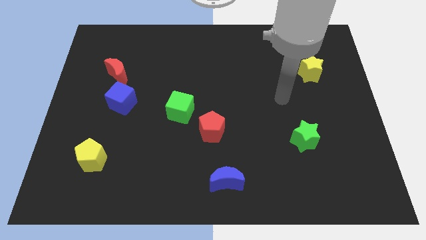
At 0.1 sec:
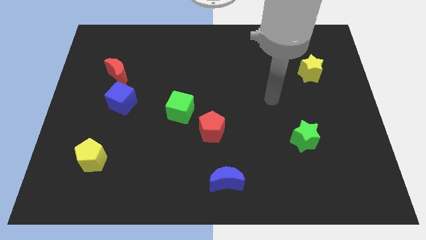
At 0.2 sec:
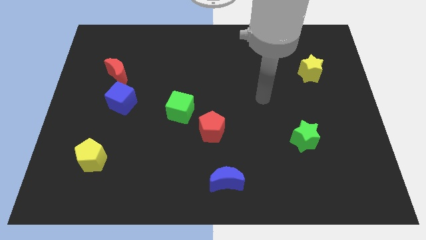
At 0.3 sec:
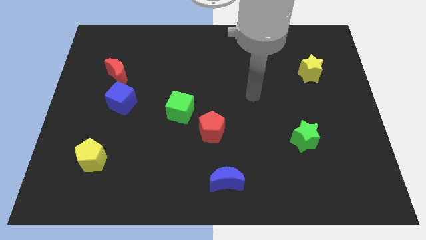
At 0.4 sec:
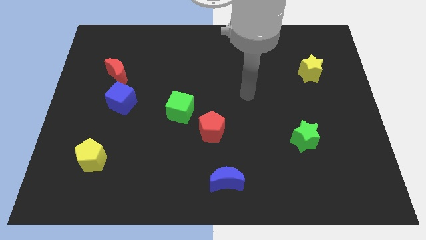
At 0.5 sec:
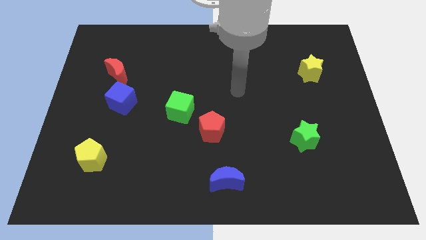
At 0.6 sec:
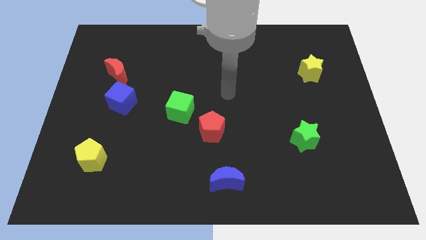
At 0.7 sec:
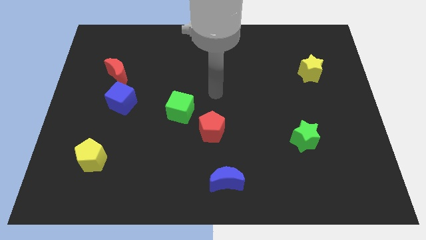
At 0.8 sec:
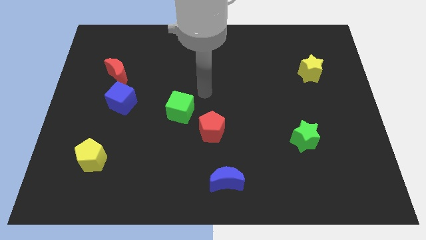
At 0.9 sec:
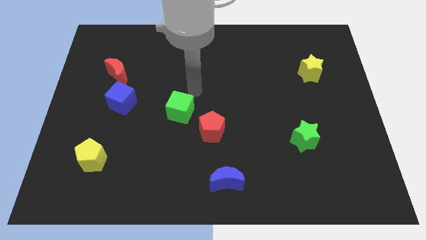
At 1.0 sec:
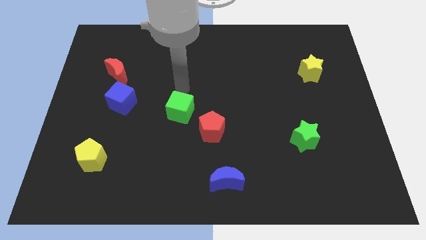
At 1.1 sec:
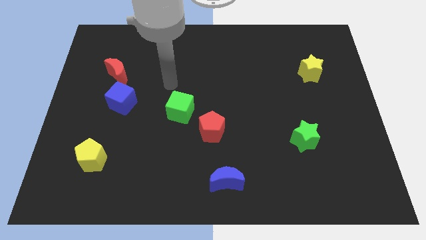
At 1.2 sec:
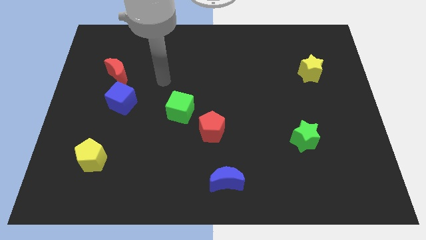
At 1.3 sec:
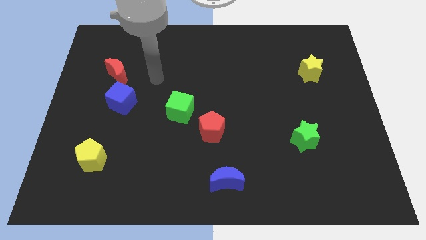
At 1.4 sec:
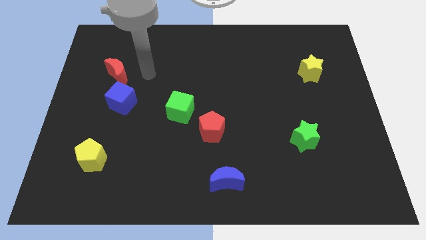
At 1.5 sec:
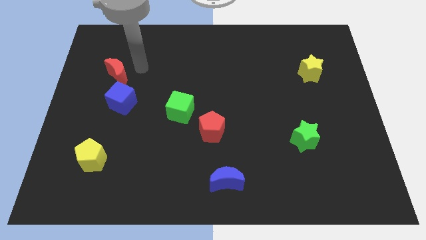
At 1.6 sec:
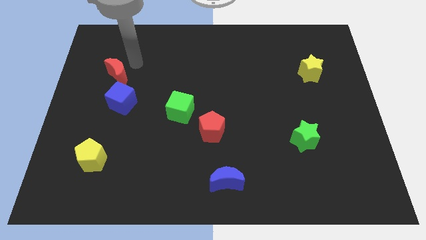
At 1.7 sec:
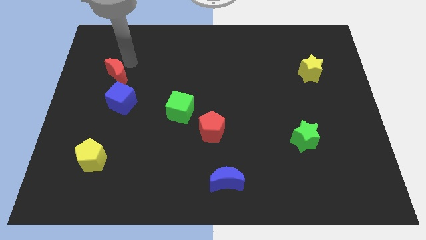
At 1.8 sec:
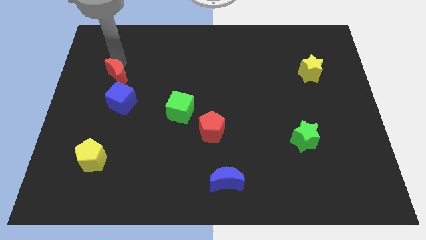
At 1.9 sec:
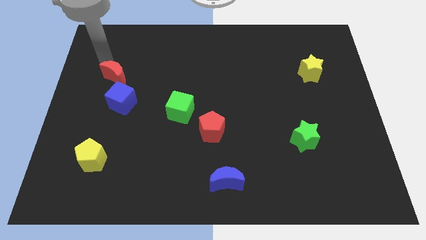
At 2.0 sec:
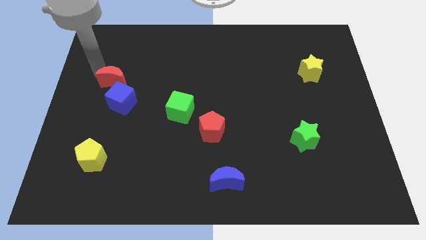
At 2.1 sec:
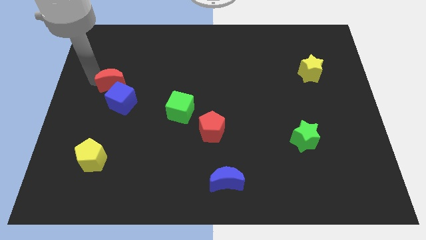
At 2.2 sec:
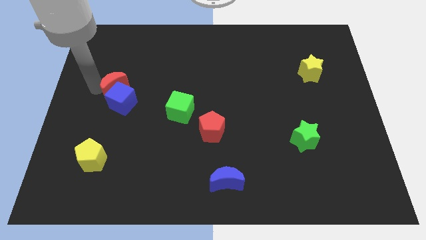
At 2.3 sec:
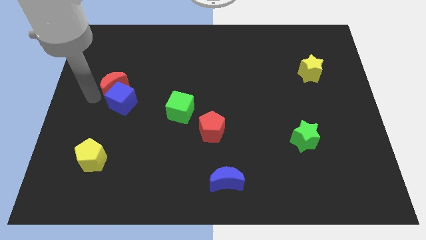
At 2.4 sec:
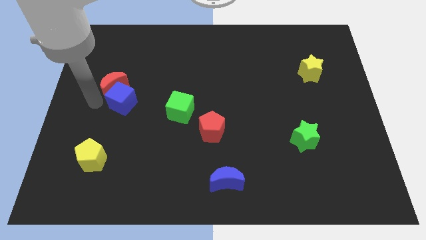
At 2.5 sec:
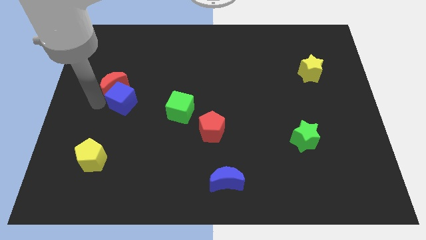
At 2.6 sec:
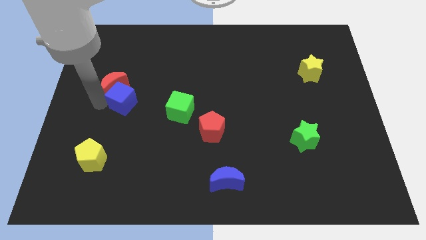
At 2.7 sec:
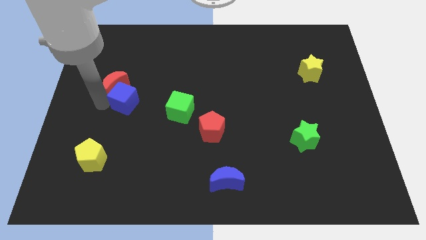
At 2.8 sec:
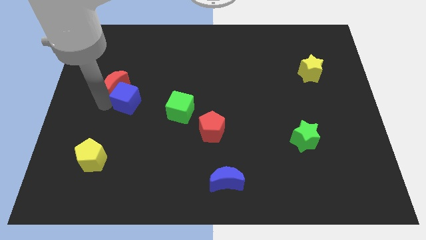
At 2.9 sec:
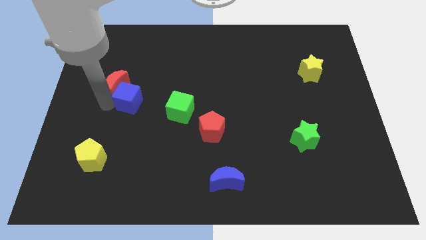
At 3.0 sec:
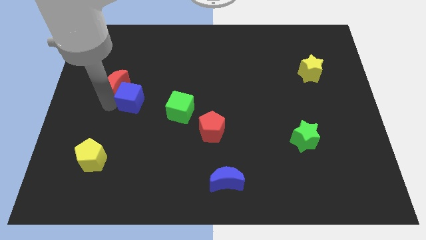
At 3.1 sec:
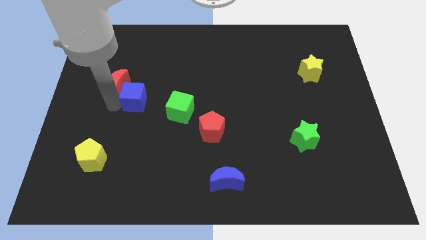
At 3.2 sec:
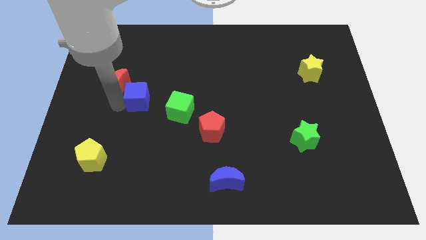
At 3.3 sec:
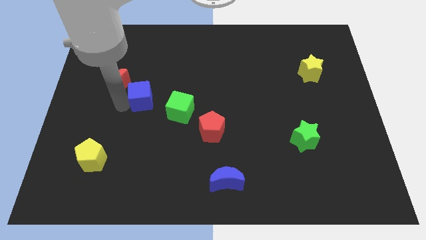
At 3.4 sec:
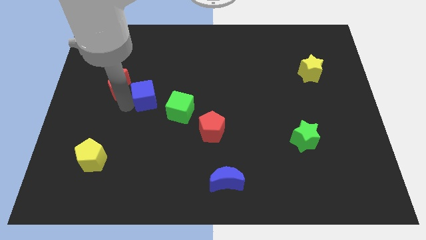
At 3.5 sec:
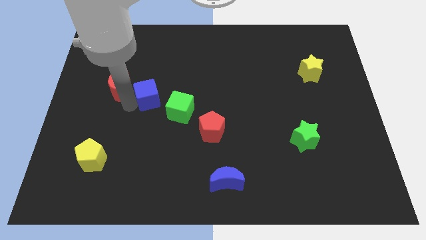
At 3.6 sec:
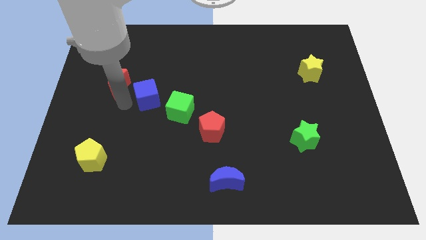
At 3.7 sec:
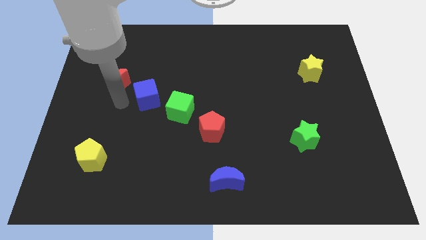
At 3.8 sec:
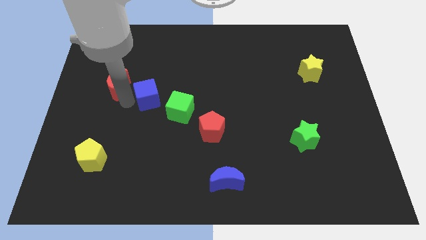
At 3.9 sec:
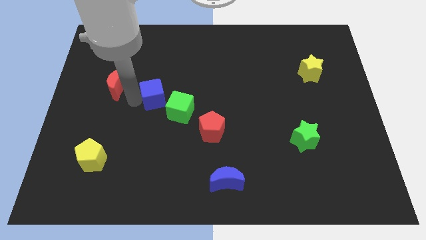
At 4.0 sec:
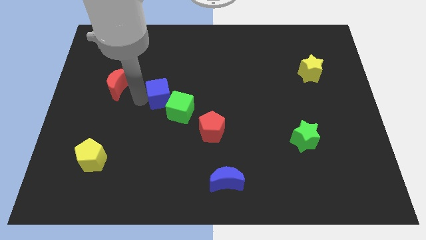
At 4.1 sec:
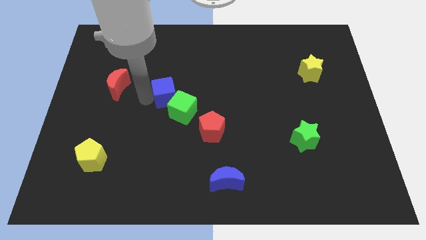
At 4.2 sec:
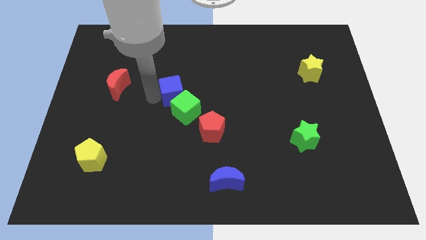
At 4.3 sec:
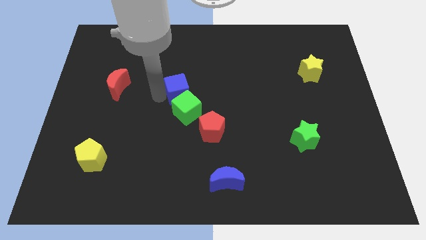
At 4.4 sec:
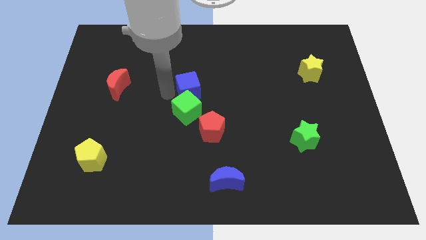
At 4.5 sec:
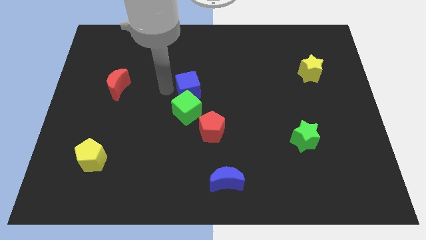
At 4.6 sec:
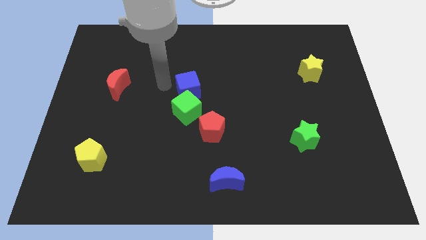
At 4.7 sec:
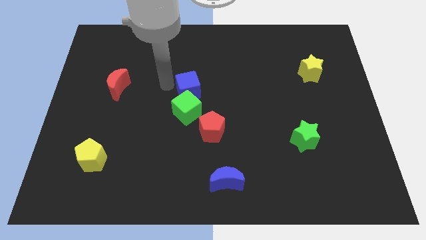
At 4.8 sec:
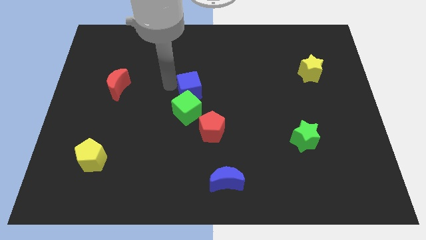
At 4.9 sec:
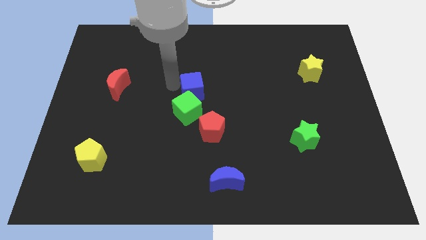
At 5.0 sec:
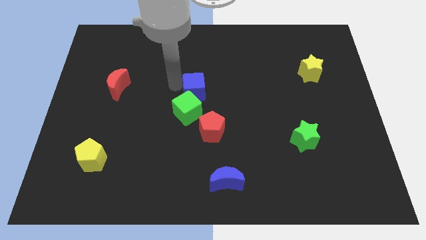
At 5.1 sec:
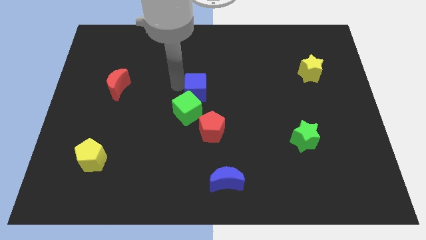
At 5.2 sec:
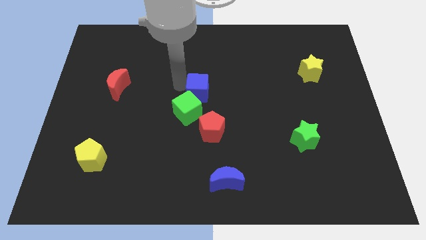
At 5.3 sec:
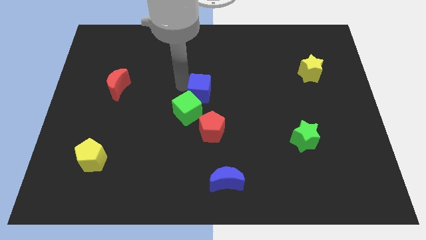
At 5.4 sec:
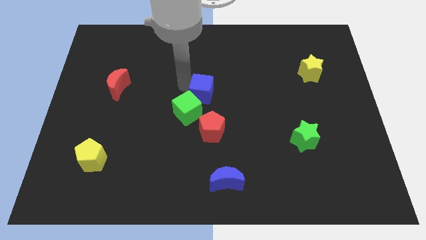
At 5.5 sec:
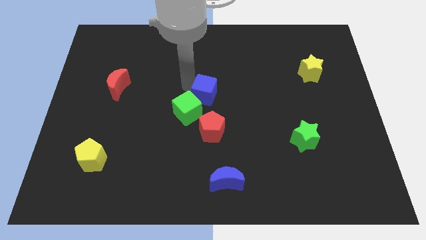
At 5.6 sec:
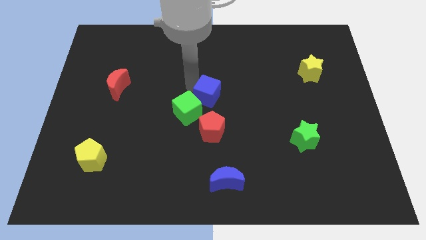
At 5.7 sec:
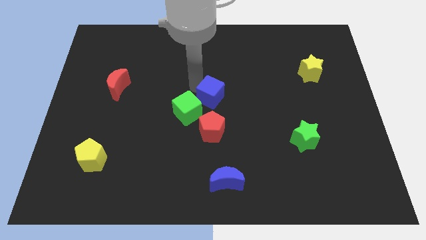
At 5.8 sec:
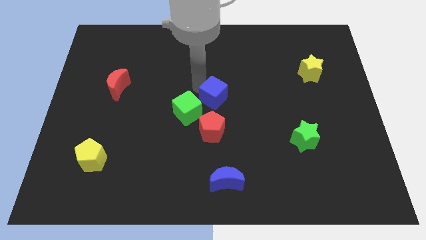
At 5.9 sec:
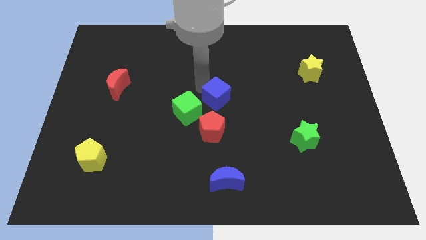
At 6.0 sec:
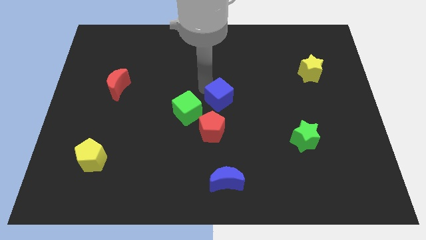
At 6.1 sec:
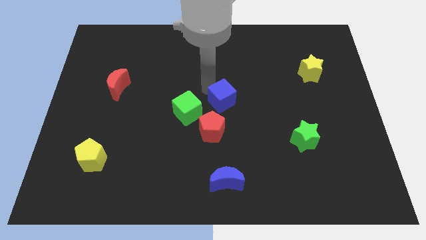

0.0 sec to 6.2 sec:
push the blue cube diagonally up and to the right of the red pentagon

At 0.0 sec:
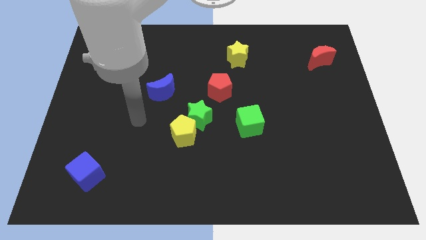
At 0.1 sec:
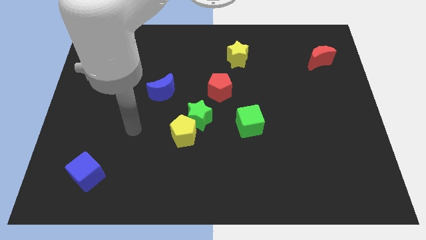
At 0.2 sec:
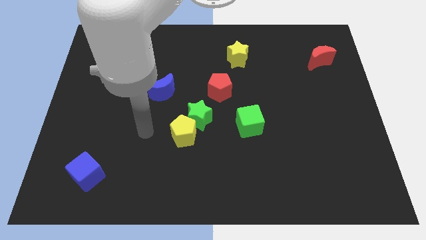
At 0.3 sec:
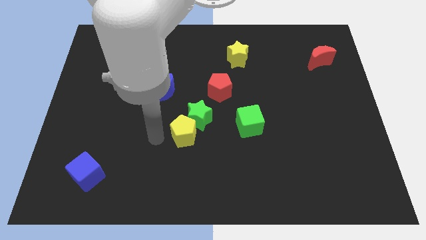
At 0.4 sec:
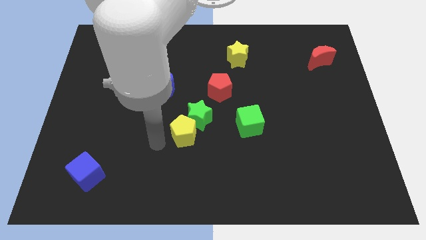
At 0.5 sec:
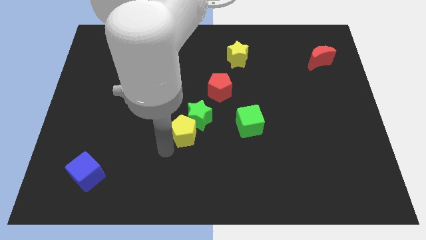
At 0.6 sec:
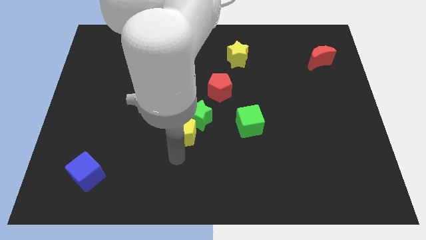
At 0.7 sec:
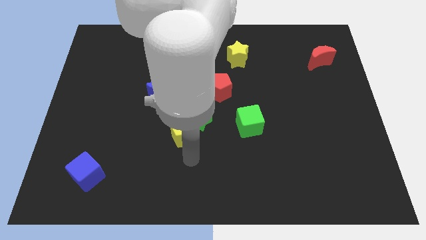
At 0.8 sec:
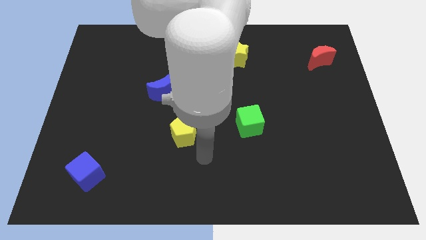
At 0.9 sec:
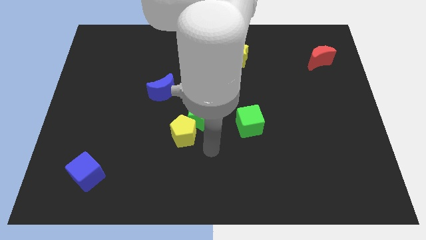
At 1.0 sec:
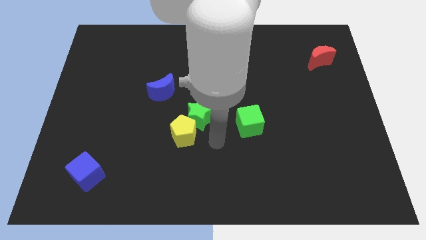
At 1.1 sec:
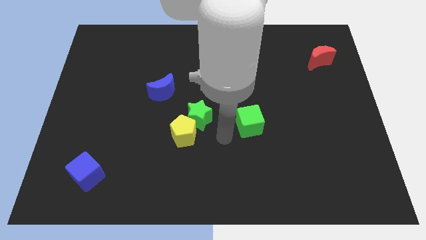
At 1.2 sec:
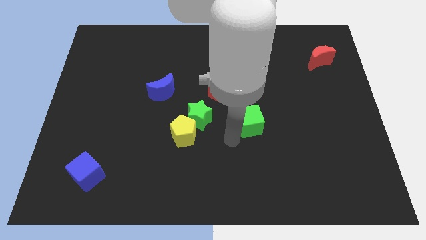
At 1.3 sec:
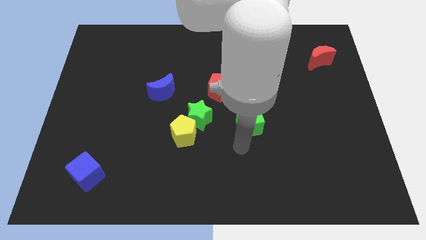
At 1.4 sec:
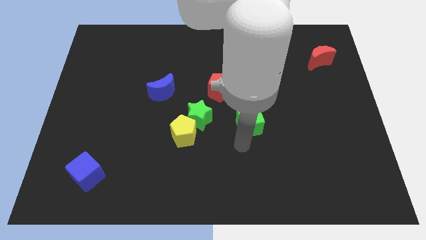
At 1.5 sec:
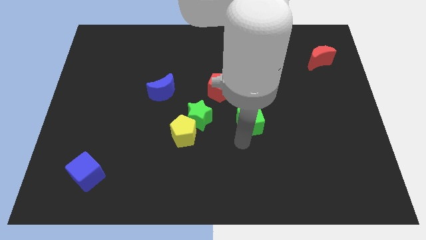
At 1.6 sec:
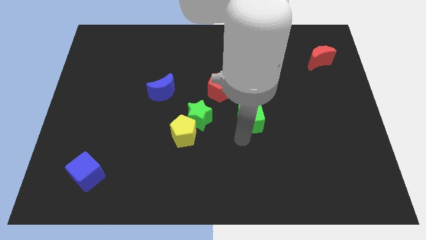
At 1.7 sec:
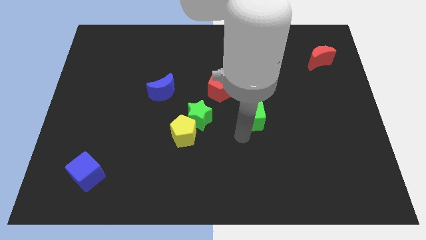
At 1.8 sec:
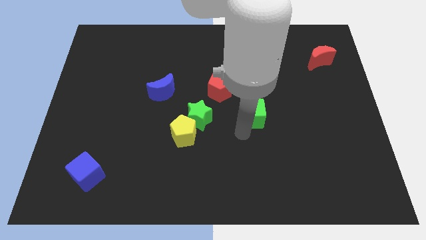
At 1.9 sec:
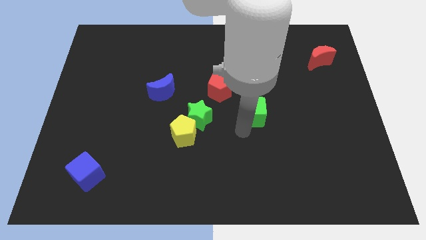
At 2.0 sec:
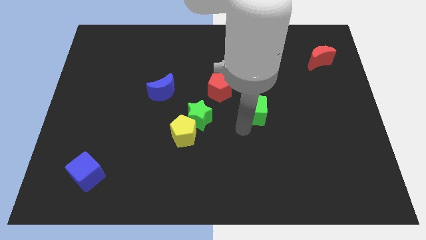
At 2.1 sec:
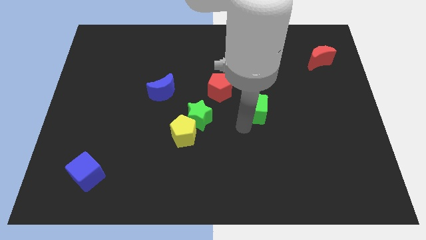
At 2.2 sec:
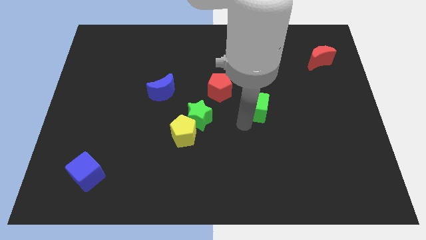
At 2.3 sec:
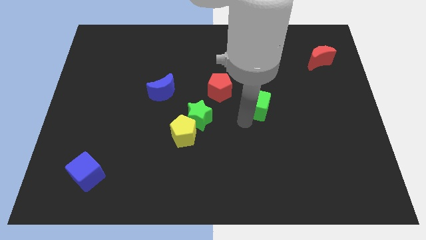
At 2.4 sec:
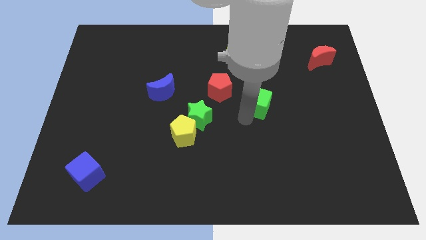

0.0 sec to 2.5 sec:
push the green cube right of the red pentagon
